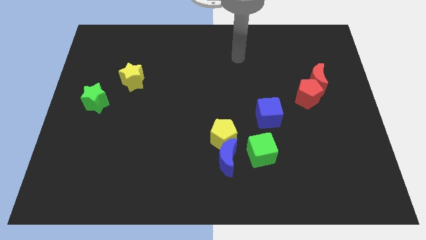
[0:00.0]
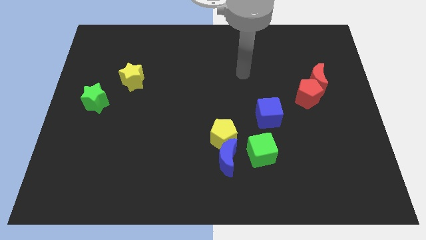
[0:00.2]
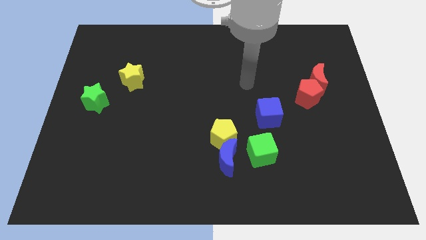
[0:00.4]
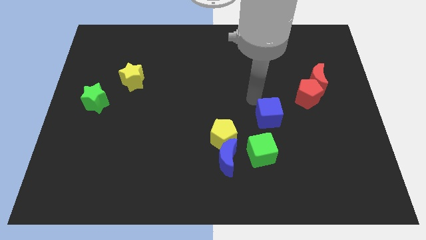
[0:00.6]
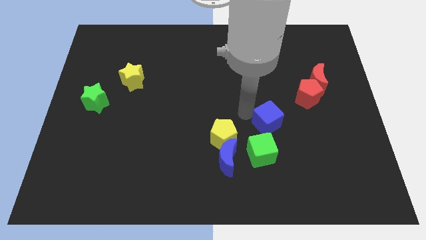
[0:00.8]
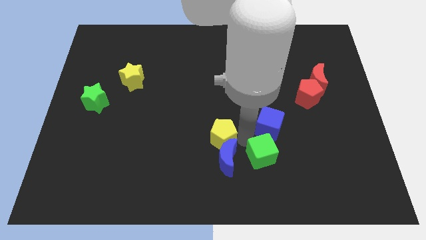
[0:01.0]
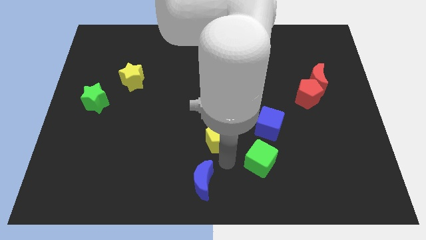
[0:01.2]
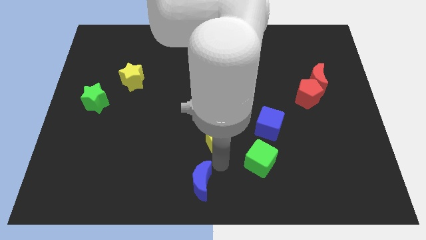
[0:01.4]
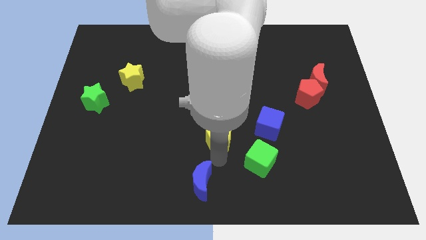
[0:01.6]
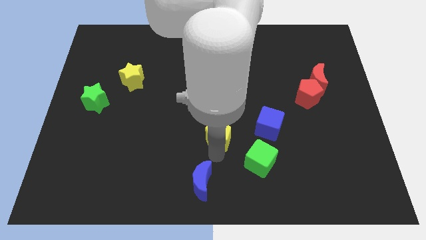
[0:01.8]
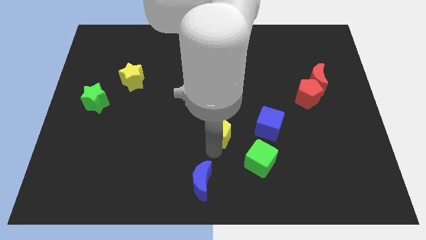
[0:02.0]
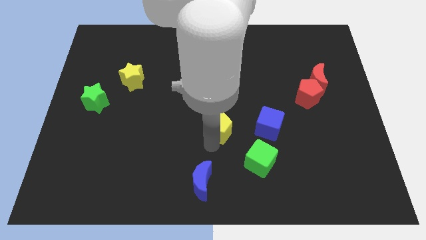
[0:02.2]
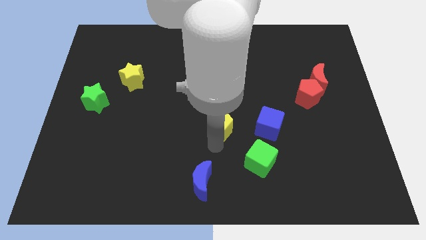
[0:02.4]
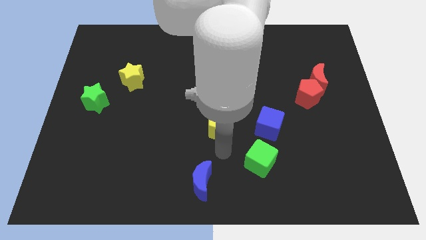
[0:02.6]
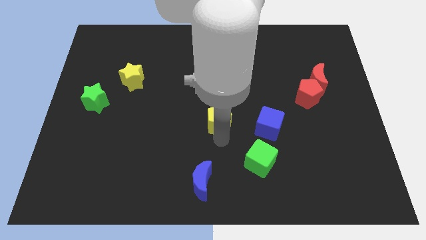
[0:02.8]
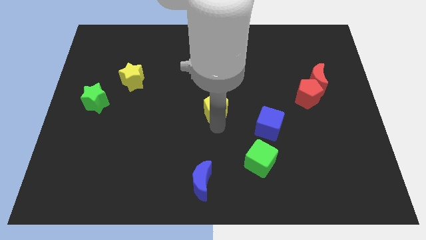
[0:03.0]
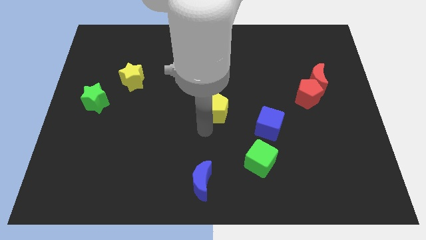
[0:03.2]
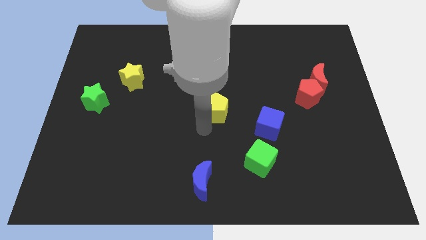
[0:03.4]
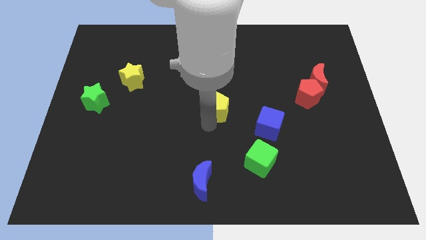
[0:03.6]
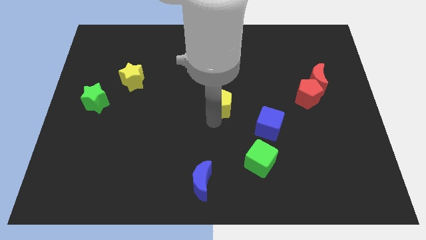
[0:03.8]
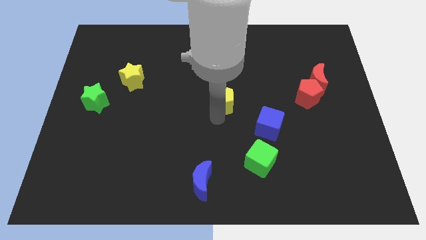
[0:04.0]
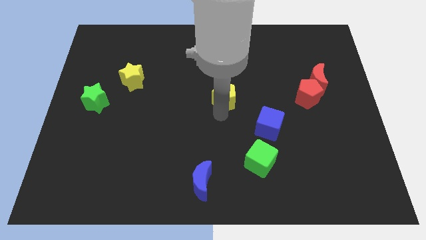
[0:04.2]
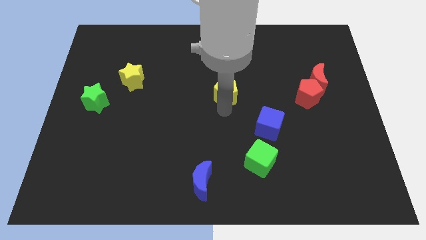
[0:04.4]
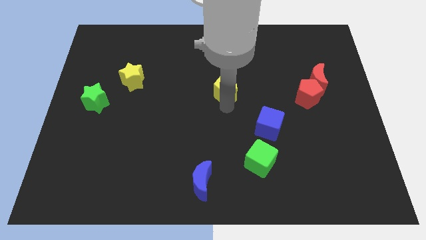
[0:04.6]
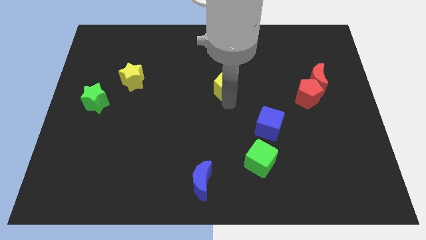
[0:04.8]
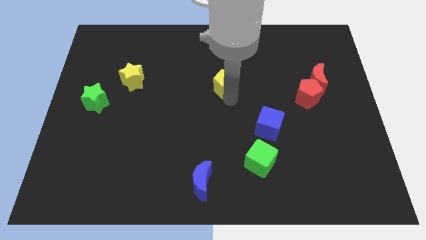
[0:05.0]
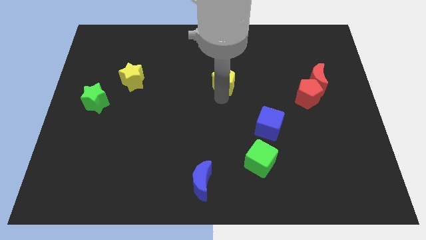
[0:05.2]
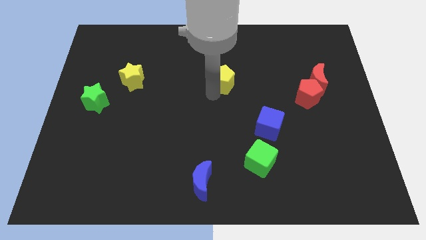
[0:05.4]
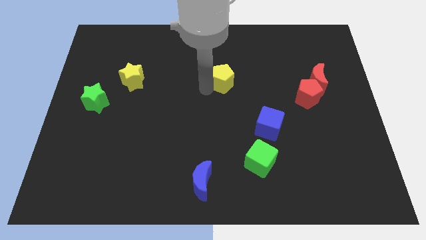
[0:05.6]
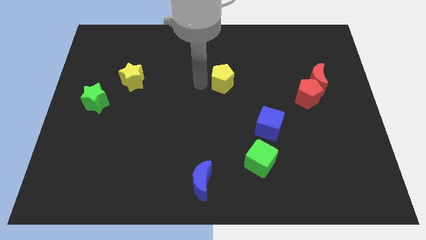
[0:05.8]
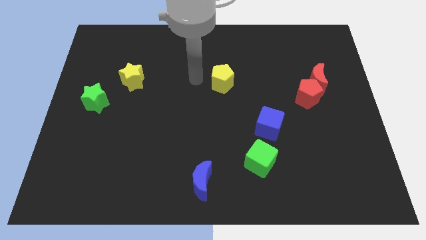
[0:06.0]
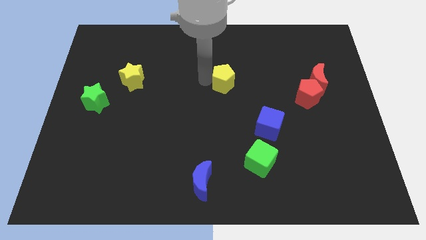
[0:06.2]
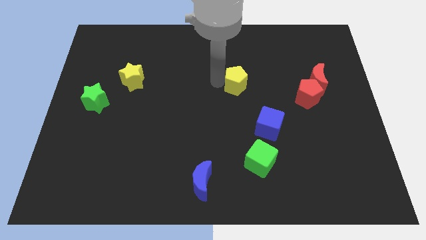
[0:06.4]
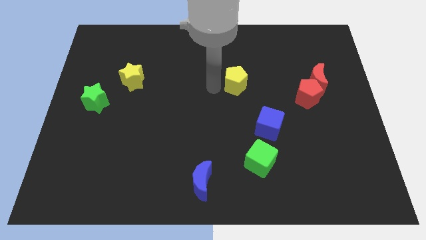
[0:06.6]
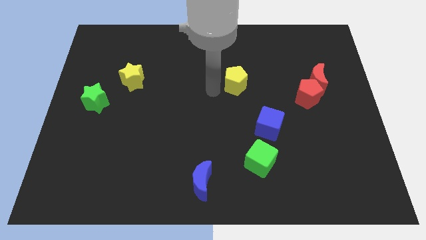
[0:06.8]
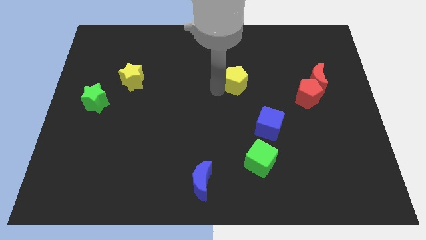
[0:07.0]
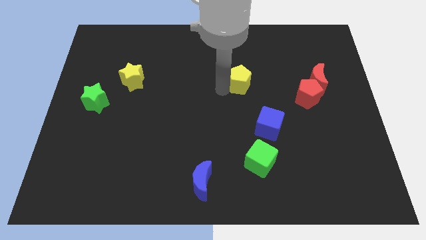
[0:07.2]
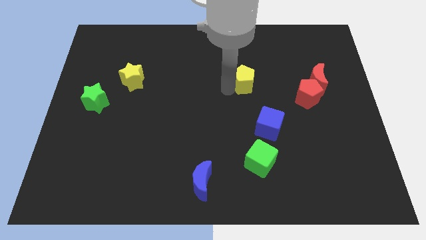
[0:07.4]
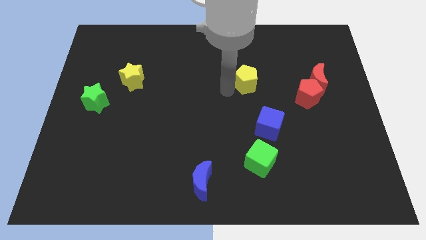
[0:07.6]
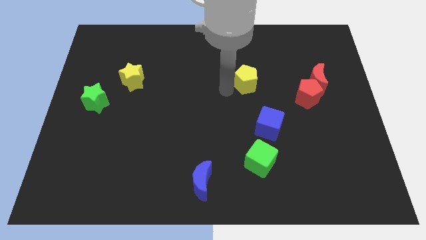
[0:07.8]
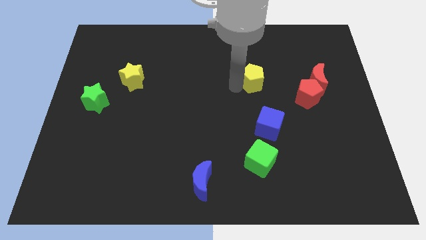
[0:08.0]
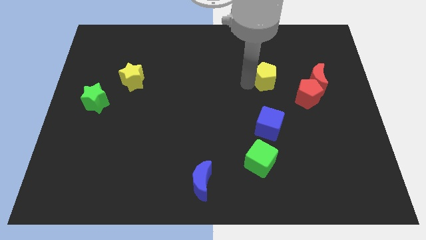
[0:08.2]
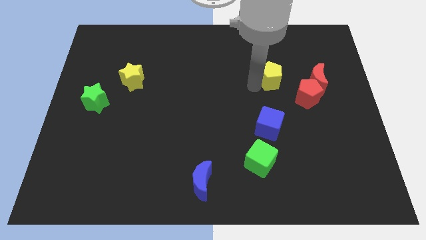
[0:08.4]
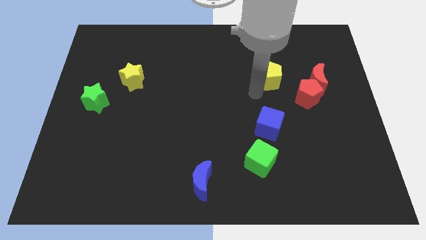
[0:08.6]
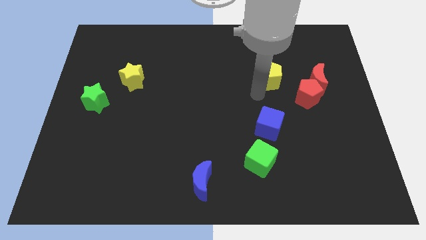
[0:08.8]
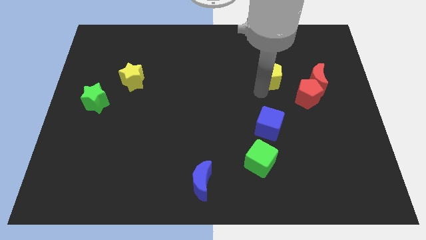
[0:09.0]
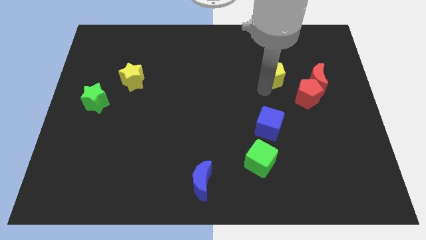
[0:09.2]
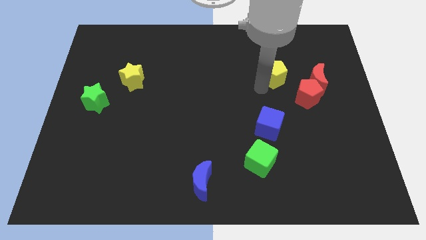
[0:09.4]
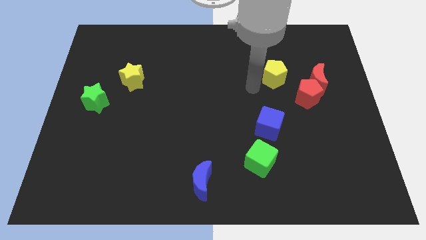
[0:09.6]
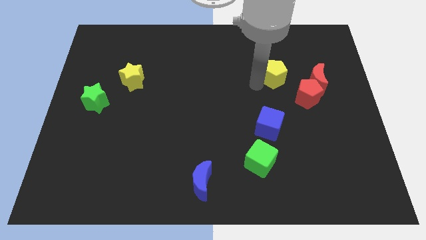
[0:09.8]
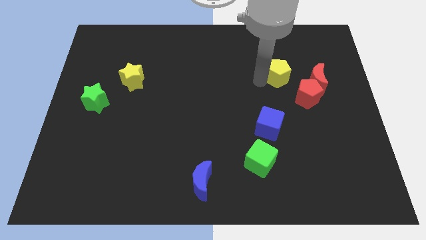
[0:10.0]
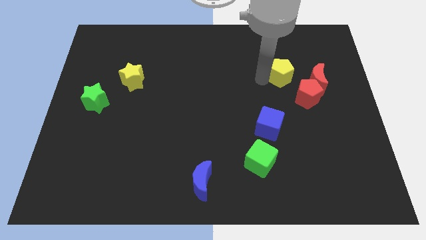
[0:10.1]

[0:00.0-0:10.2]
move the yellow pentagon to the top left side of the red moon

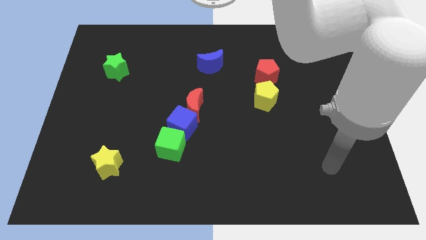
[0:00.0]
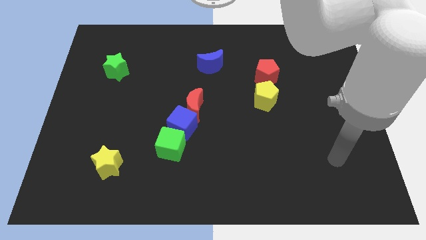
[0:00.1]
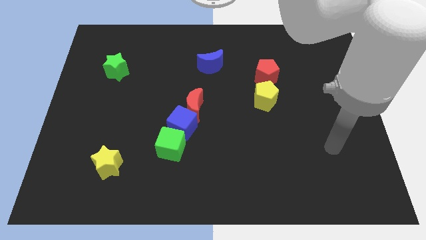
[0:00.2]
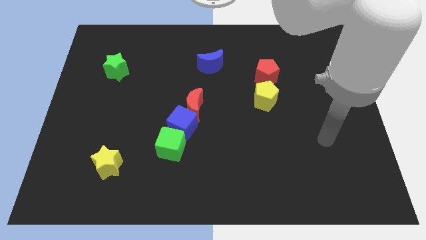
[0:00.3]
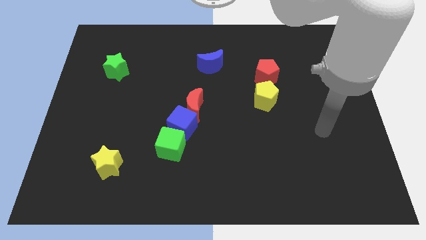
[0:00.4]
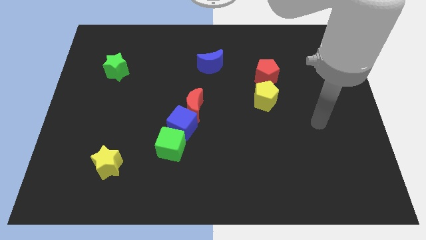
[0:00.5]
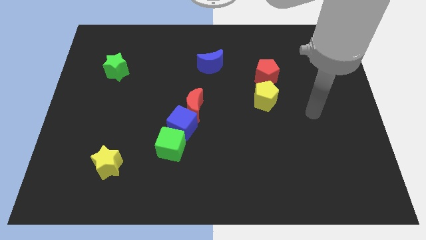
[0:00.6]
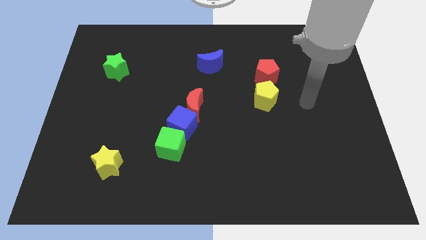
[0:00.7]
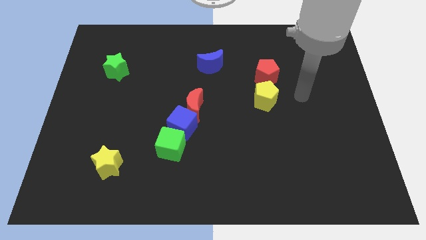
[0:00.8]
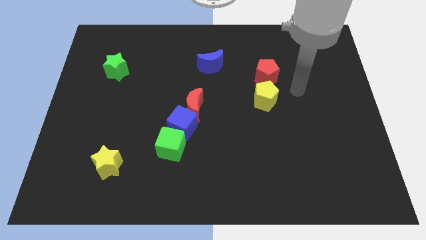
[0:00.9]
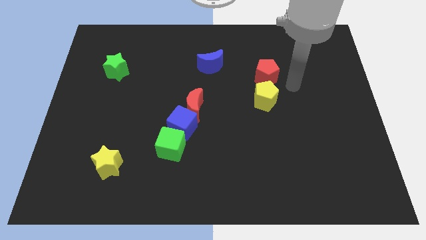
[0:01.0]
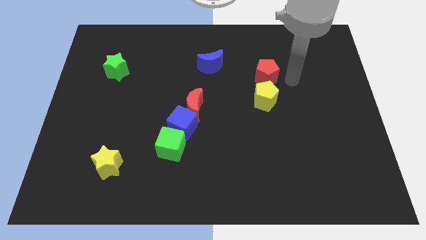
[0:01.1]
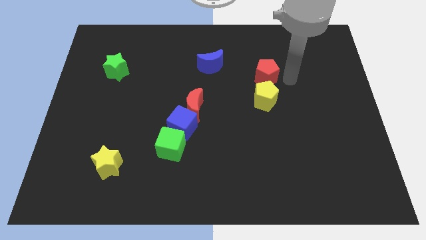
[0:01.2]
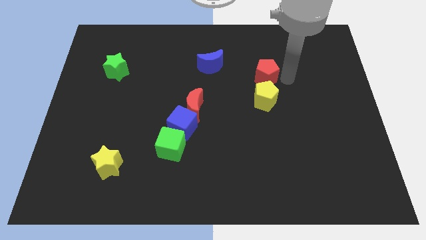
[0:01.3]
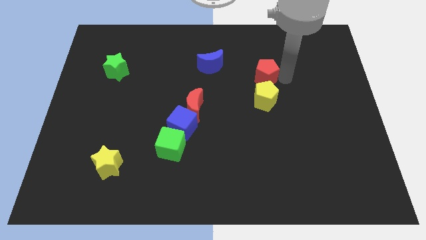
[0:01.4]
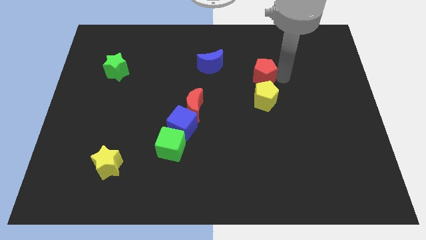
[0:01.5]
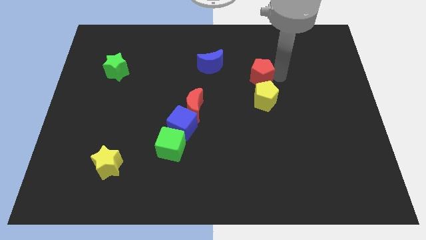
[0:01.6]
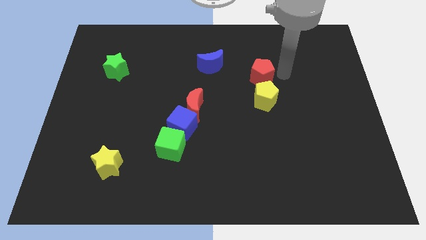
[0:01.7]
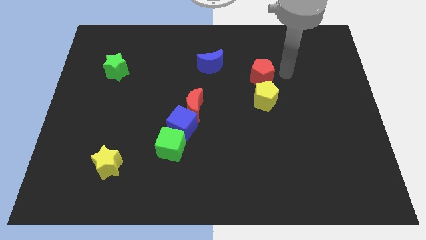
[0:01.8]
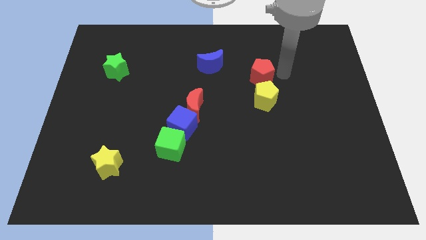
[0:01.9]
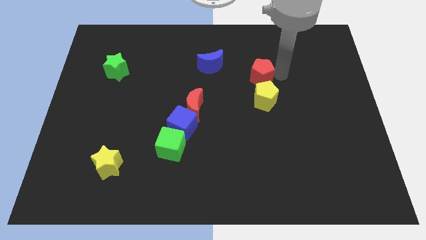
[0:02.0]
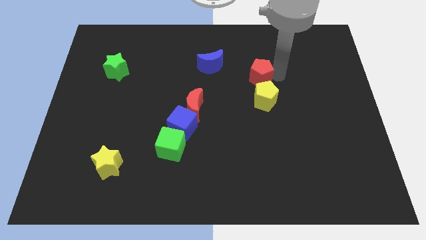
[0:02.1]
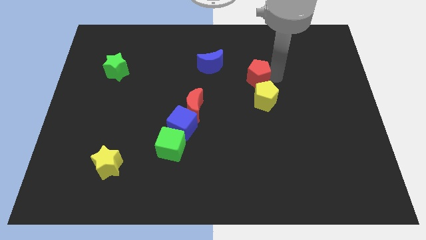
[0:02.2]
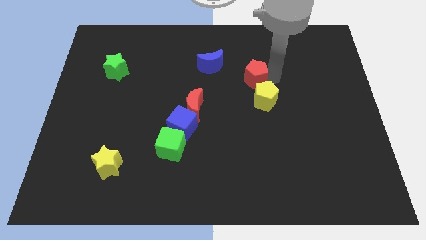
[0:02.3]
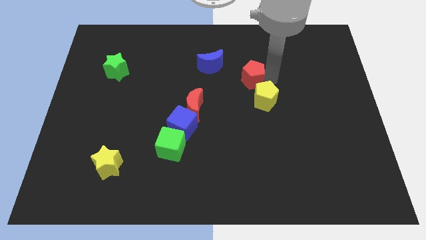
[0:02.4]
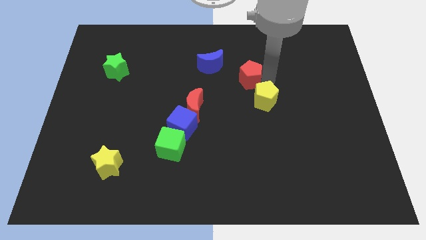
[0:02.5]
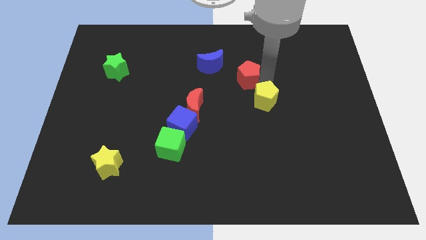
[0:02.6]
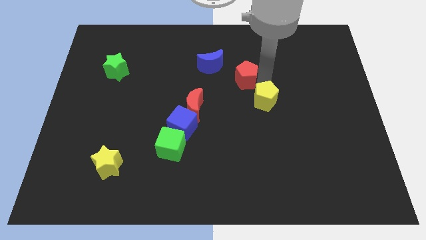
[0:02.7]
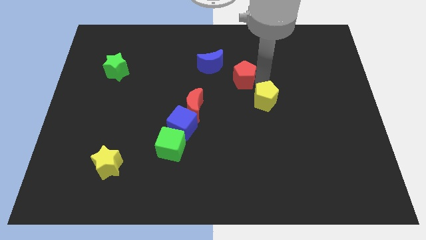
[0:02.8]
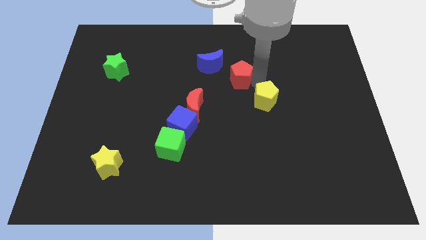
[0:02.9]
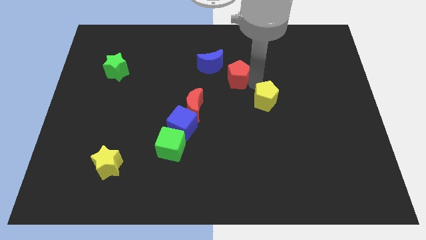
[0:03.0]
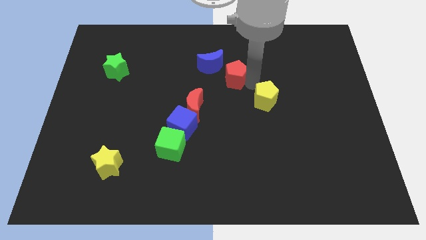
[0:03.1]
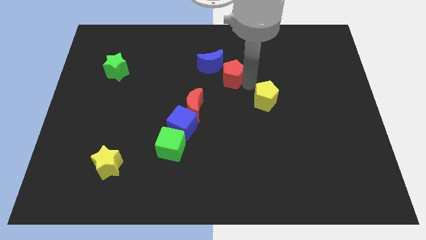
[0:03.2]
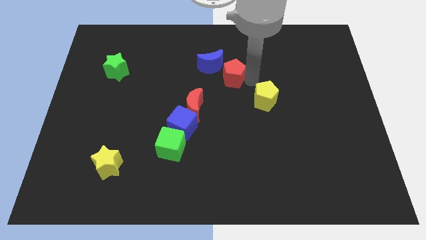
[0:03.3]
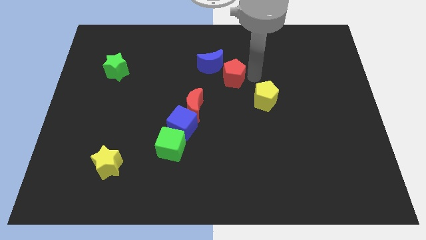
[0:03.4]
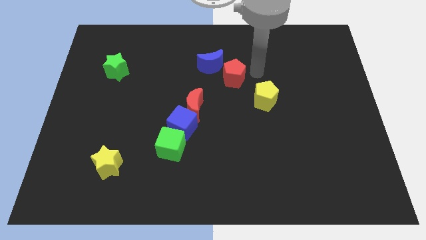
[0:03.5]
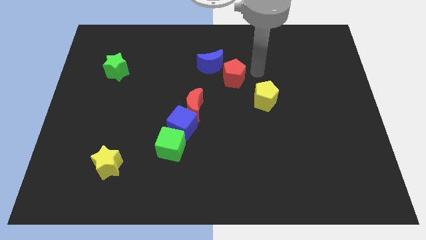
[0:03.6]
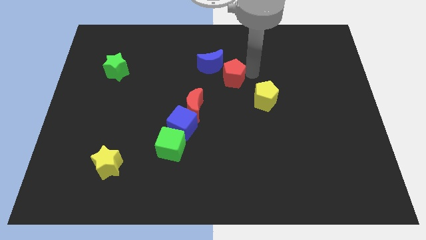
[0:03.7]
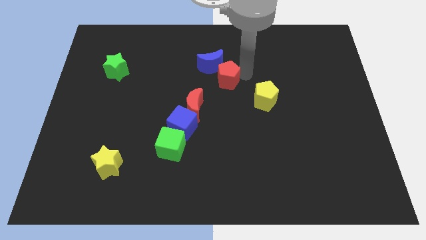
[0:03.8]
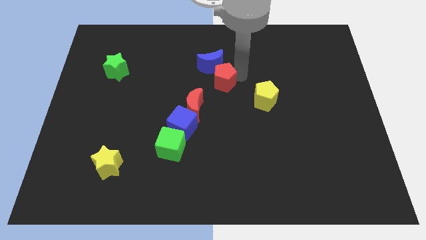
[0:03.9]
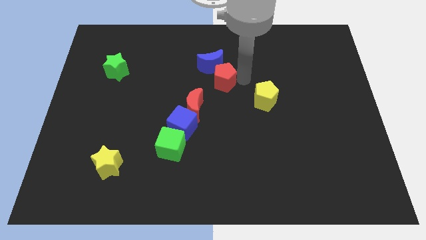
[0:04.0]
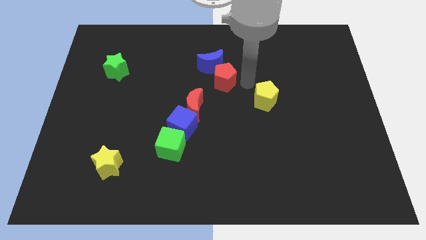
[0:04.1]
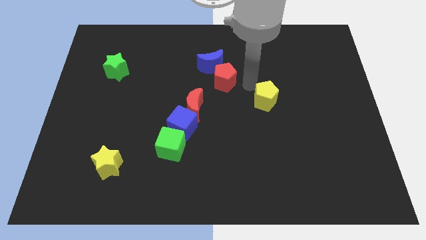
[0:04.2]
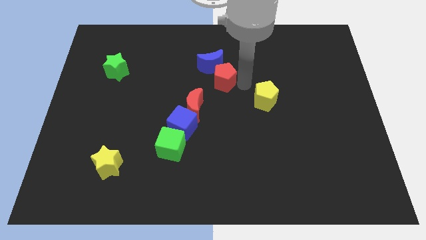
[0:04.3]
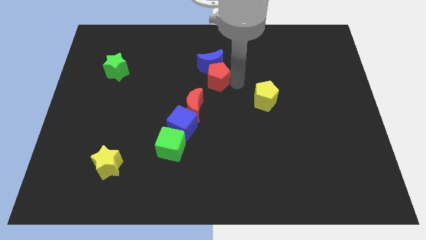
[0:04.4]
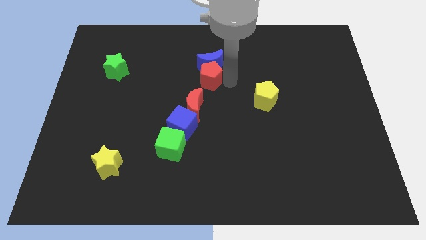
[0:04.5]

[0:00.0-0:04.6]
slide the red pentagon to the top of the red moon
